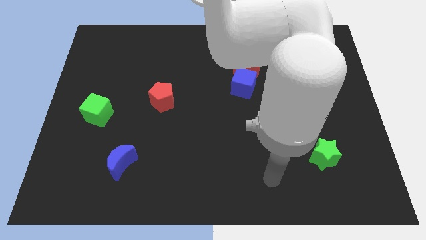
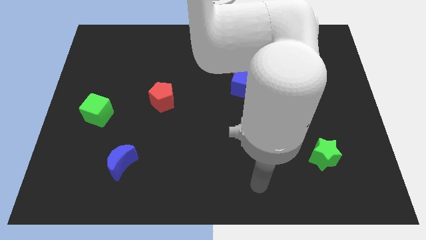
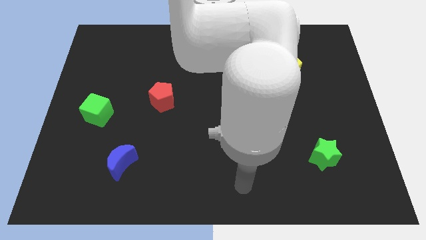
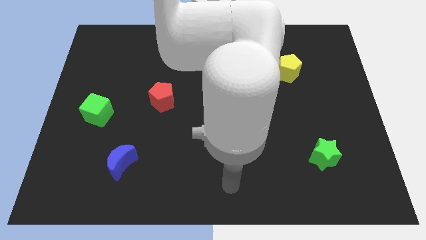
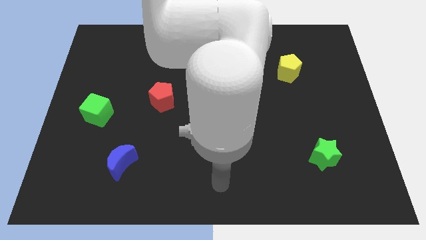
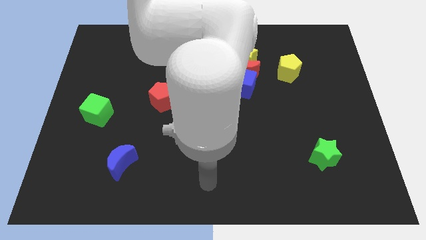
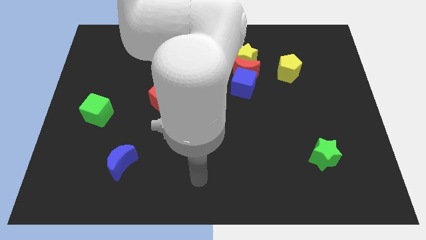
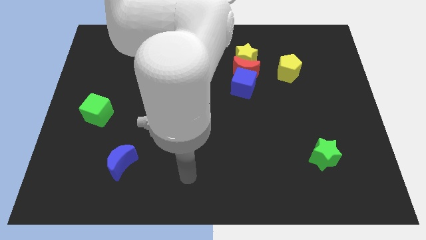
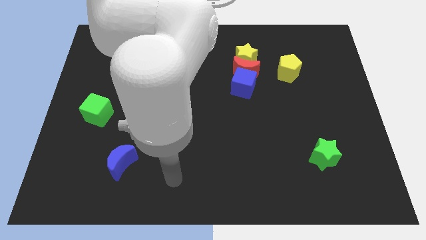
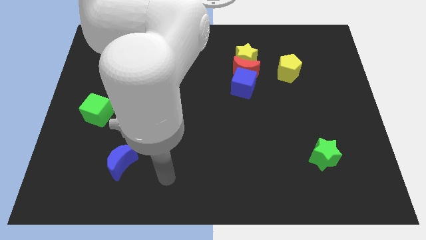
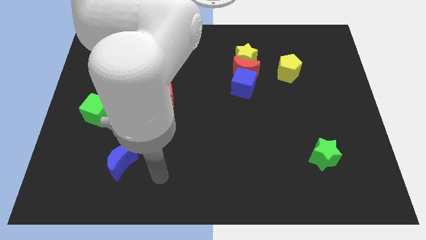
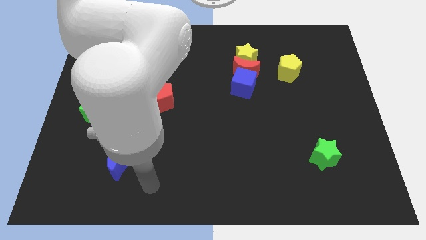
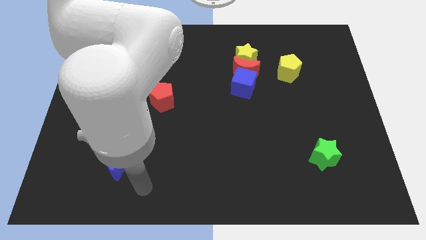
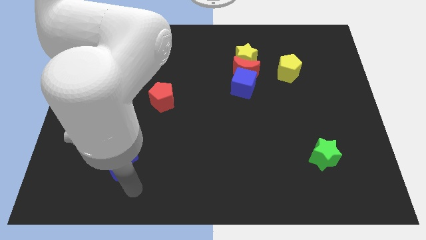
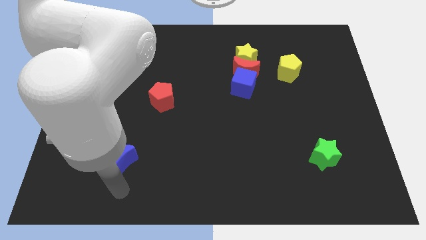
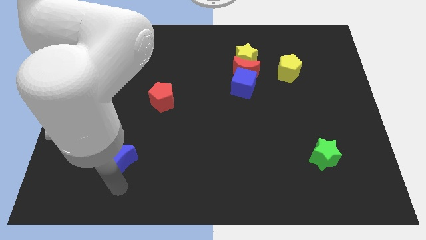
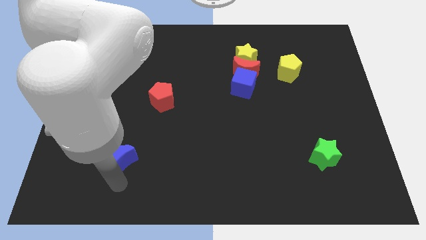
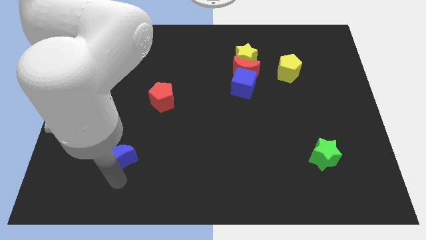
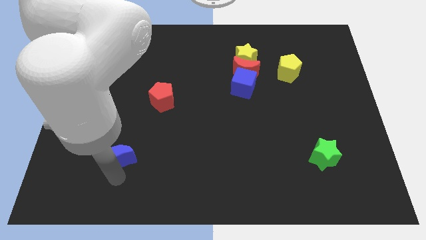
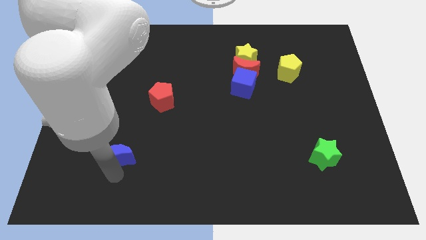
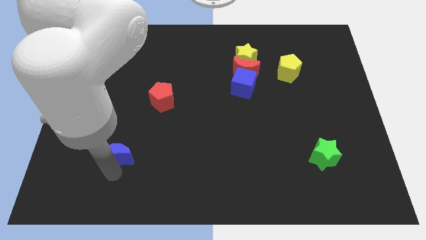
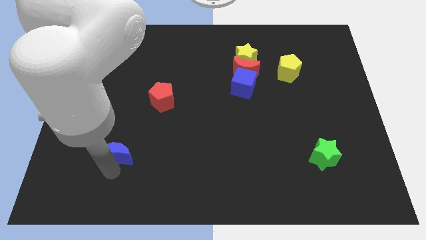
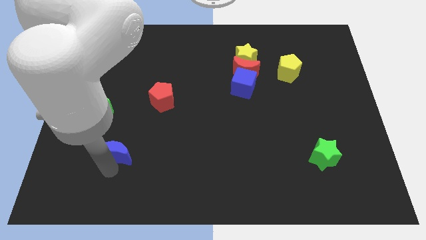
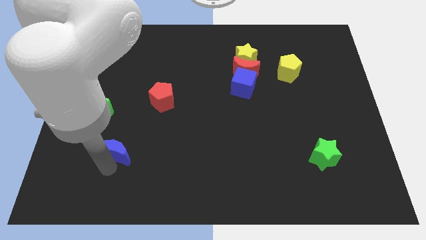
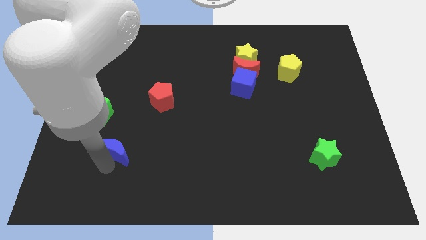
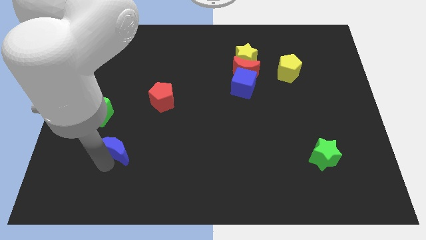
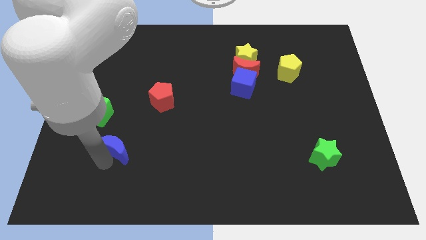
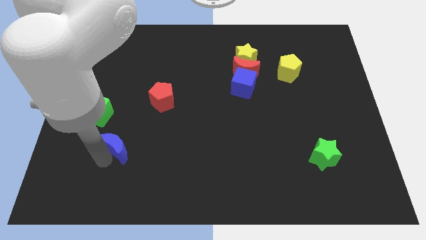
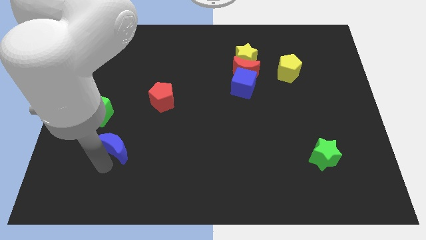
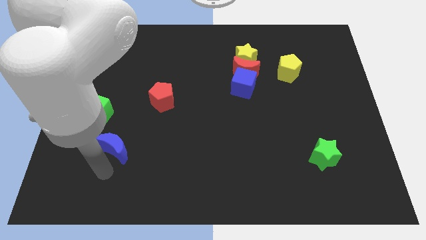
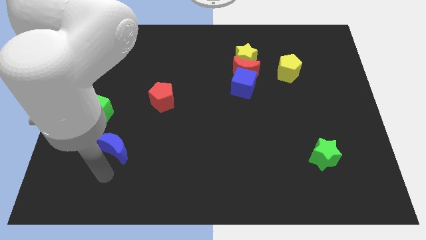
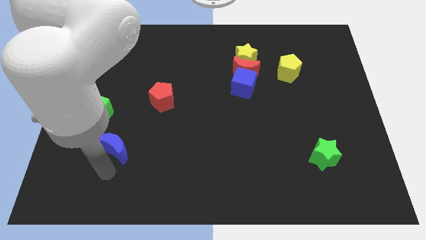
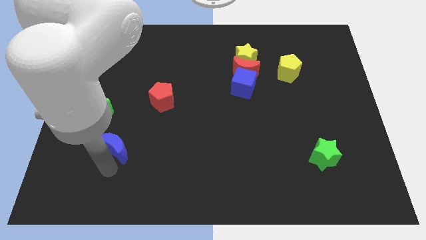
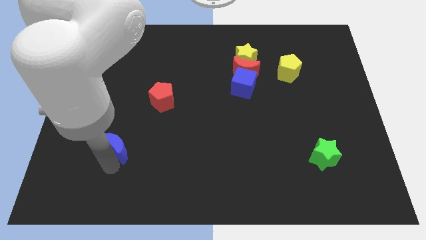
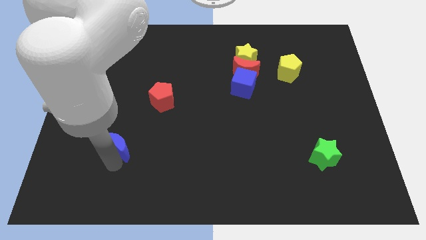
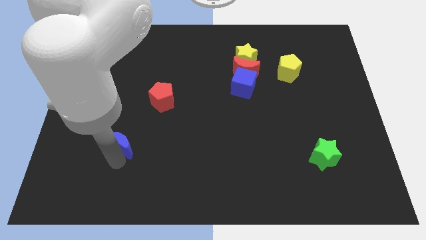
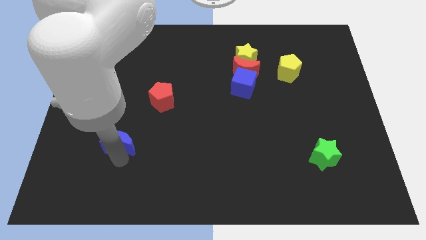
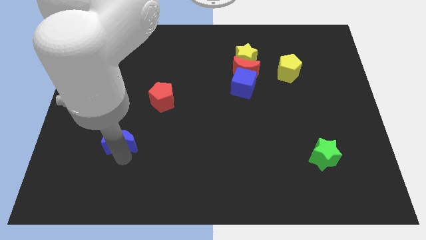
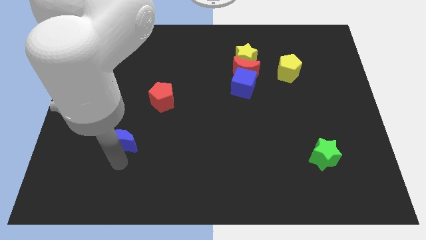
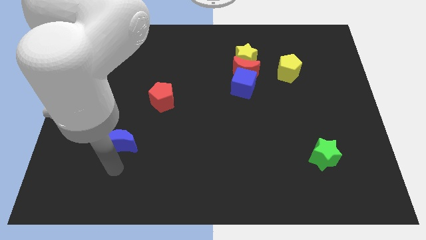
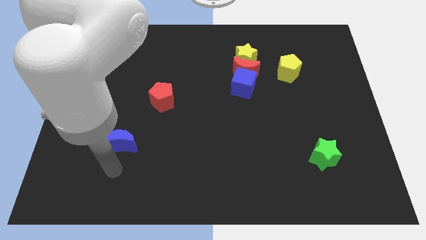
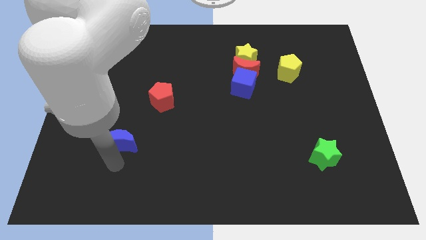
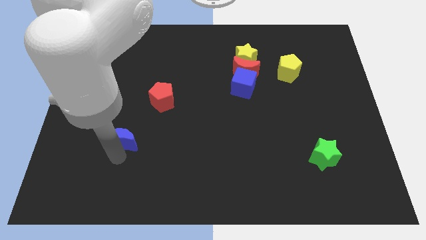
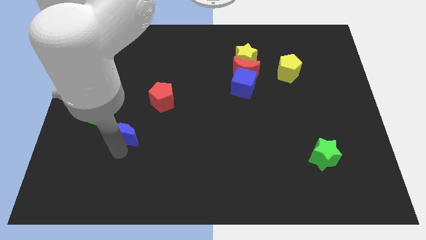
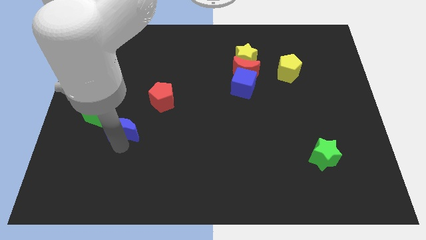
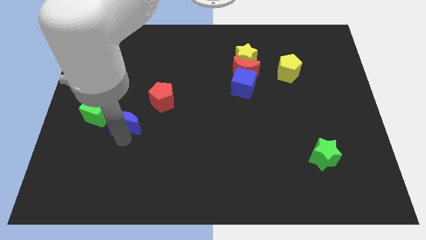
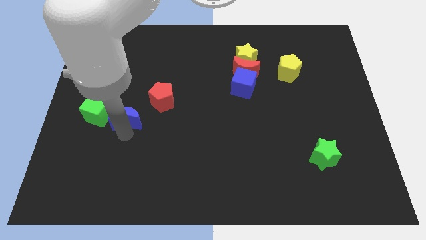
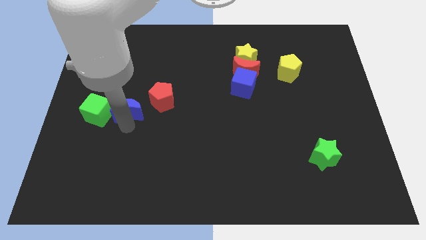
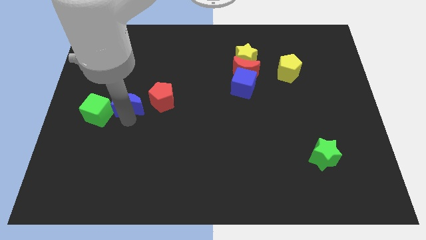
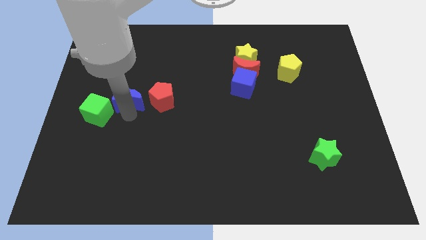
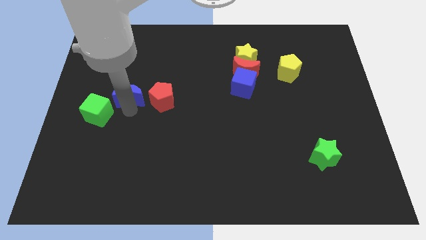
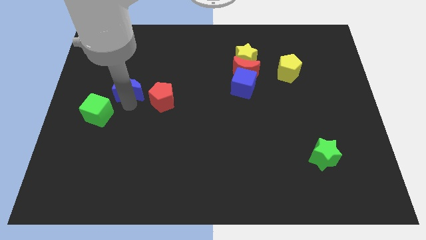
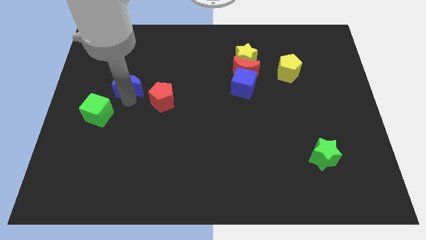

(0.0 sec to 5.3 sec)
slide the blue moon up

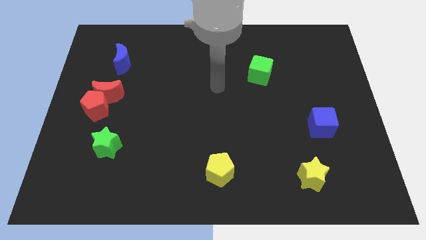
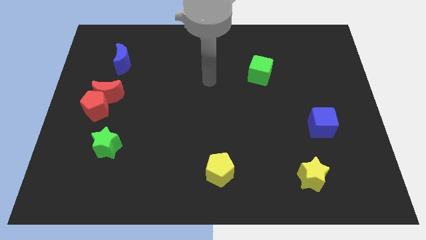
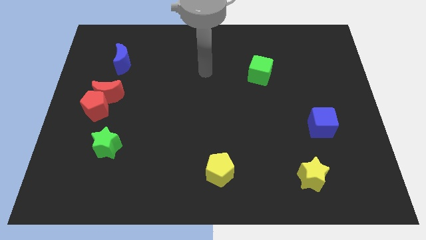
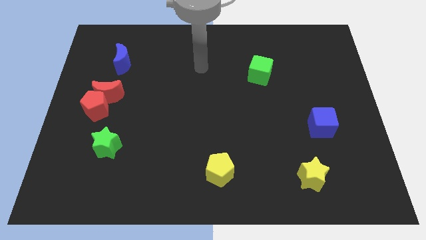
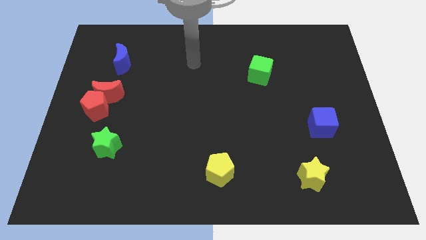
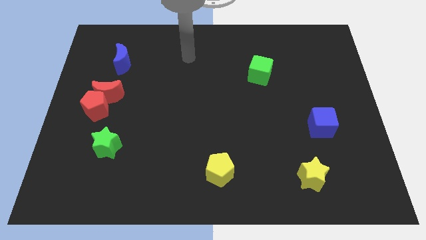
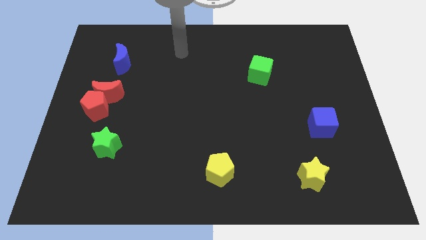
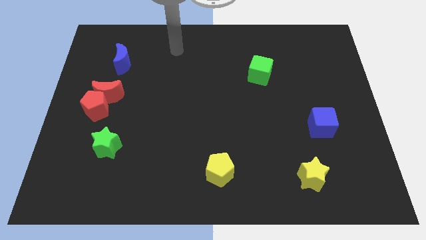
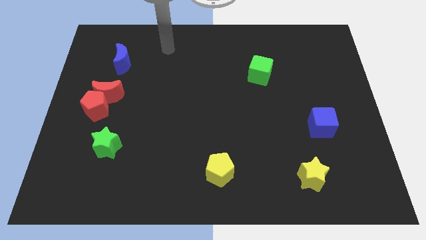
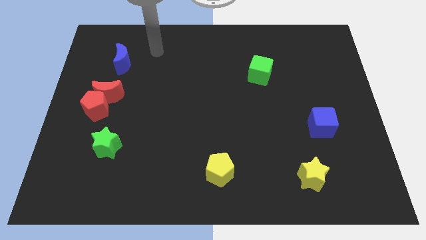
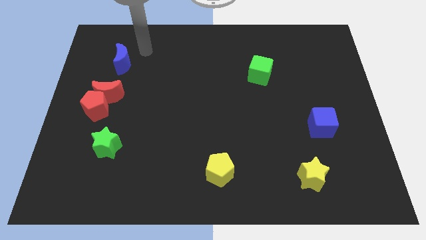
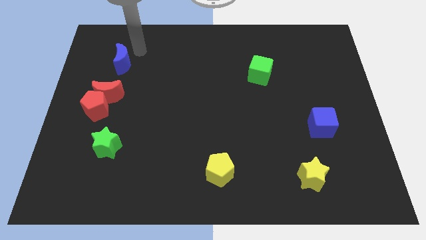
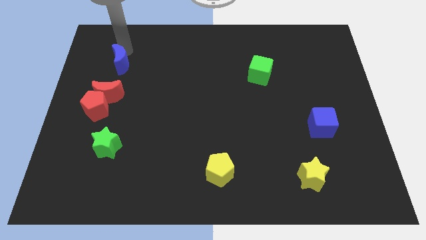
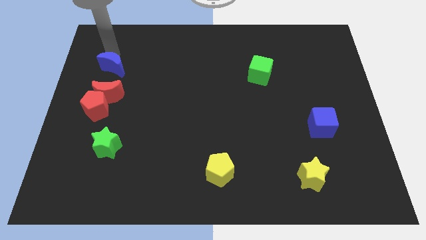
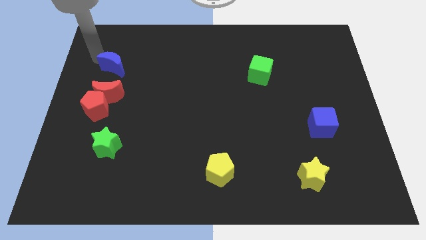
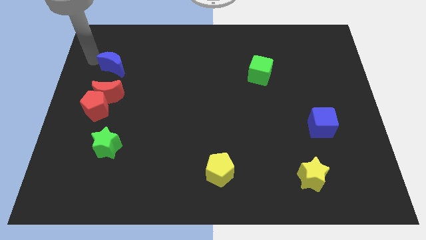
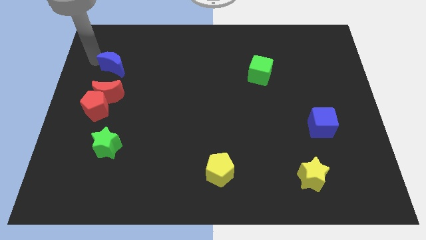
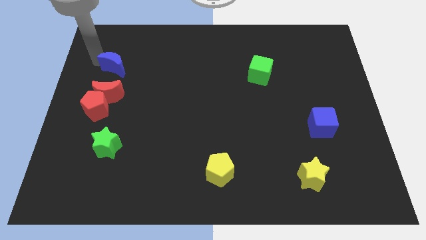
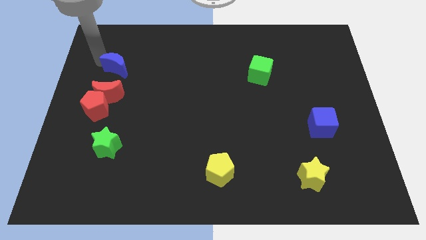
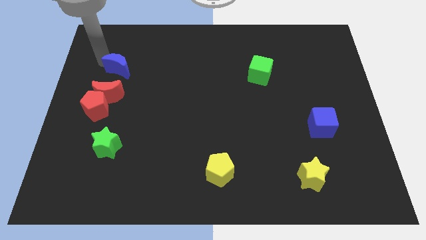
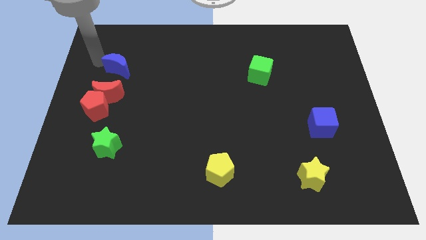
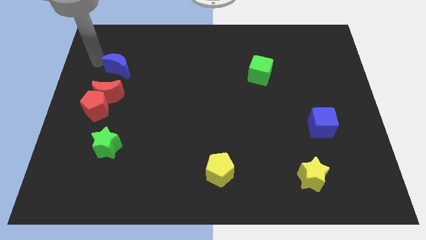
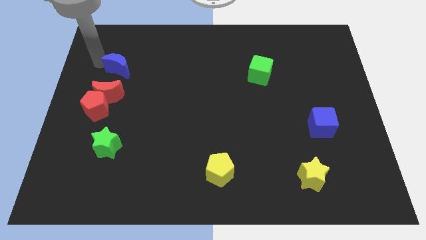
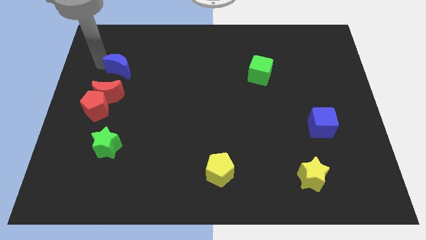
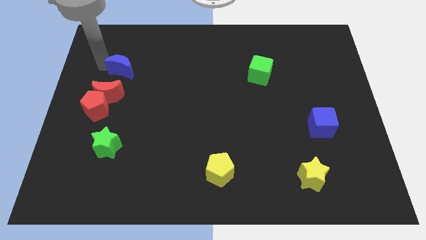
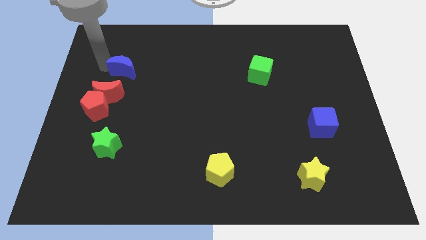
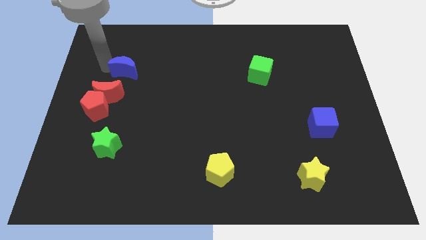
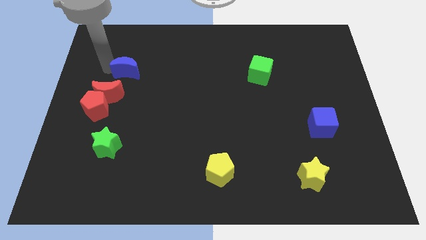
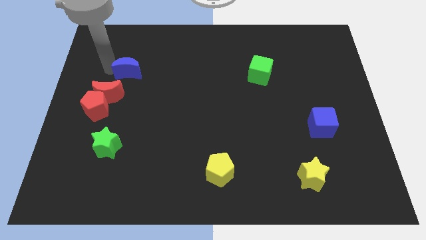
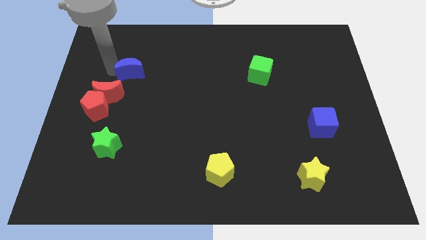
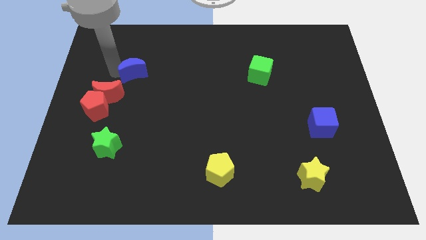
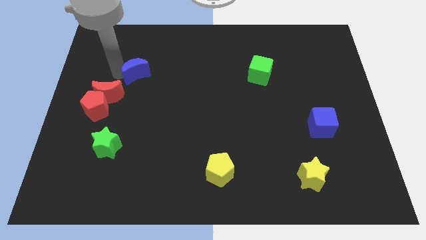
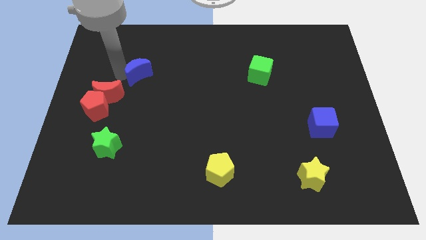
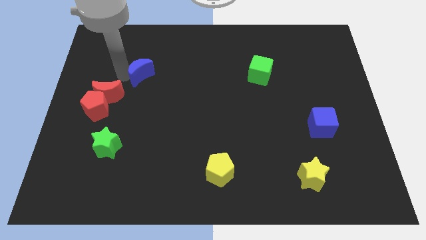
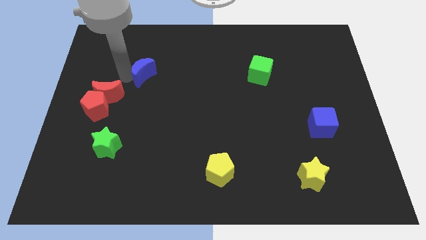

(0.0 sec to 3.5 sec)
push the blue moon downwards and then to the right a bit
